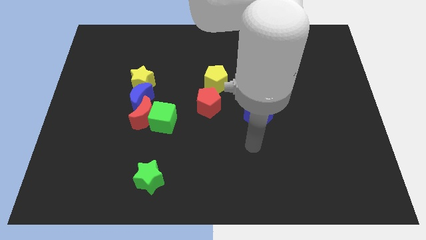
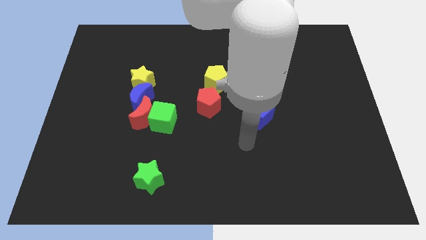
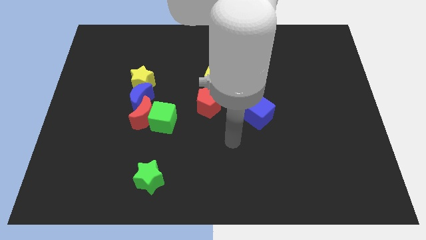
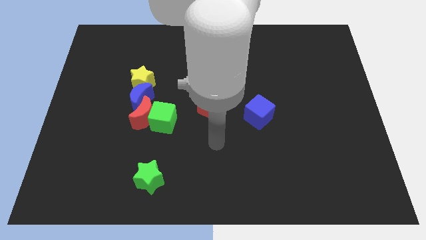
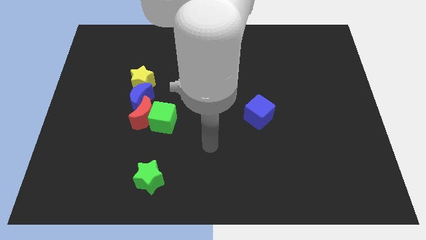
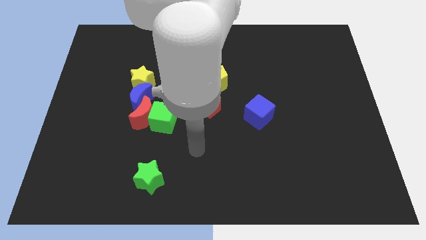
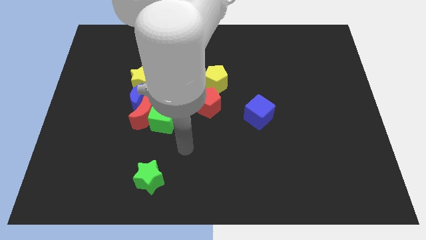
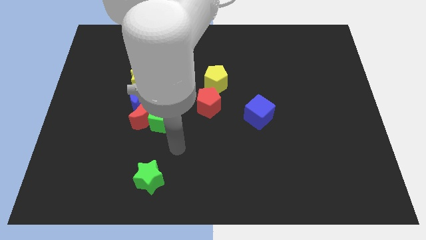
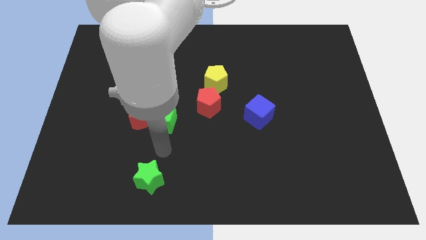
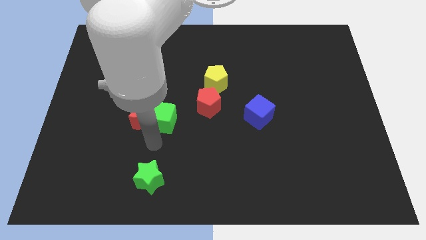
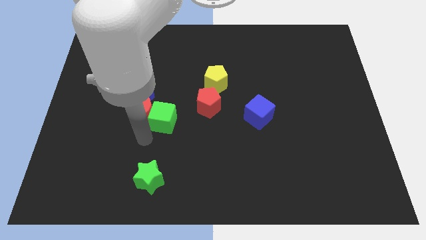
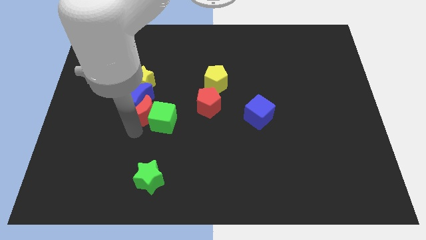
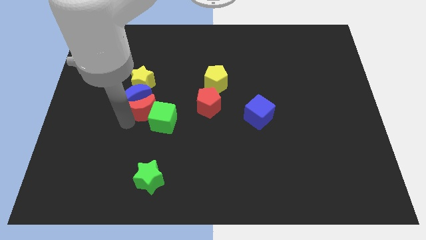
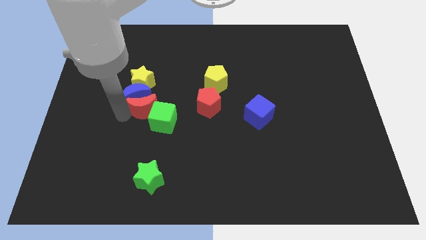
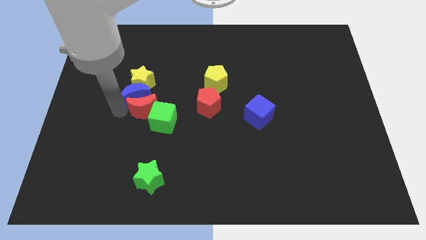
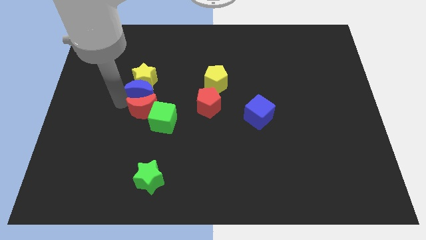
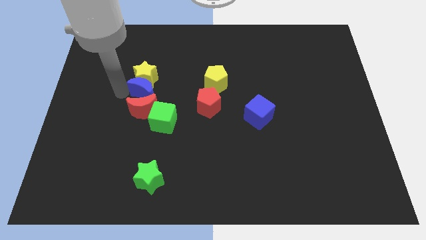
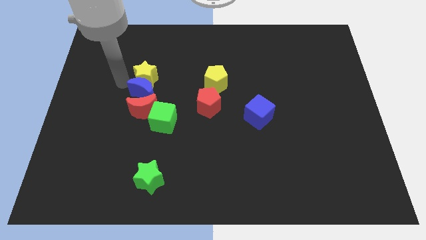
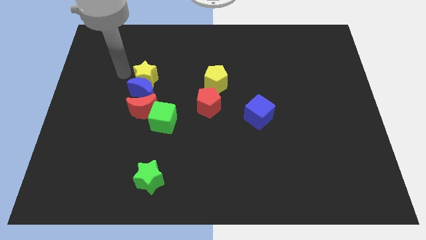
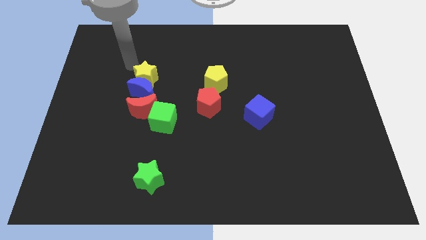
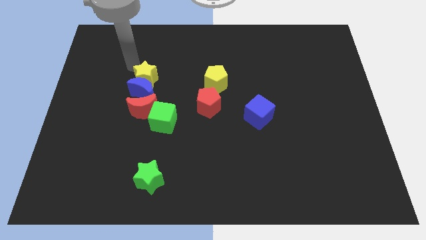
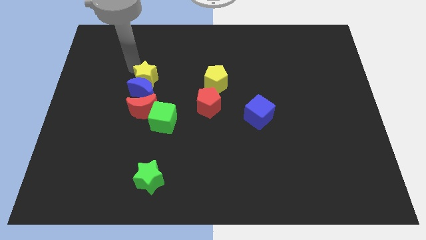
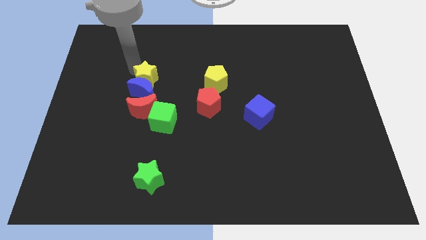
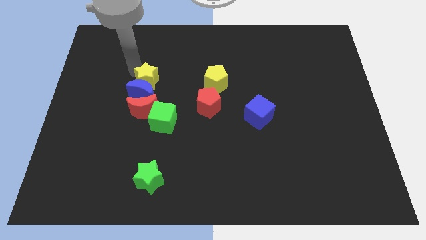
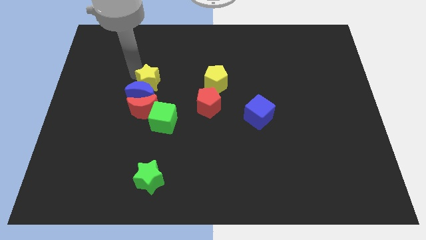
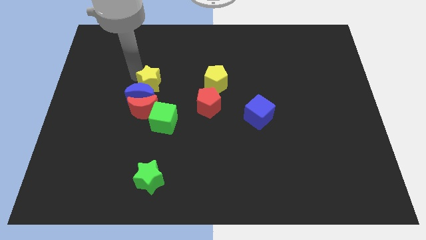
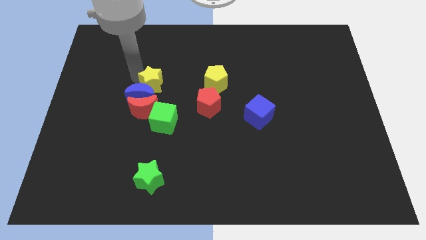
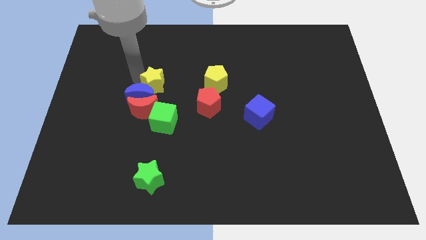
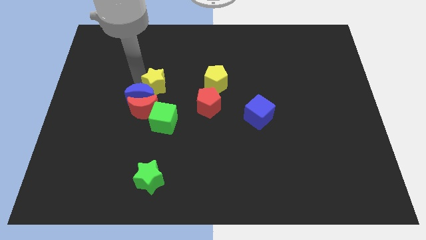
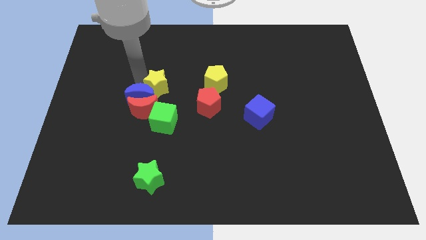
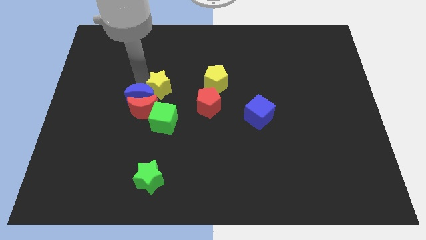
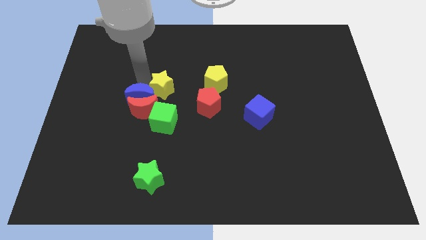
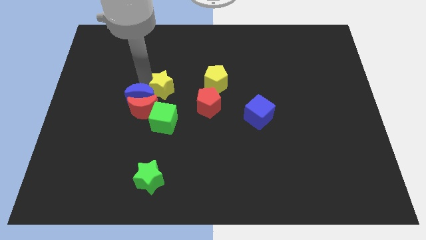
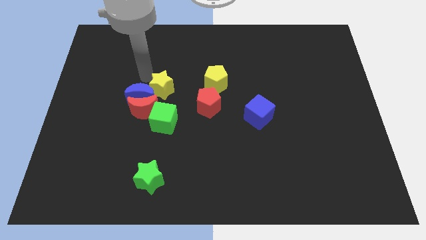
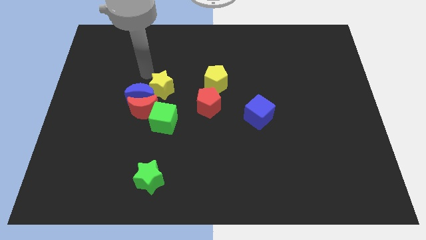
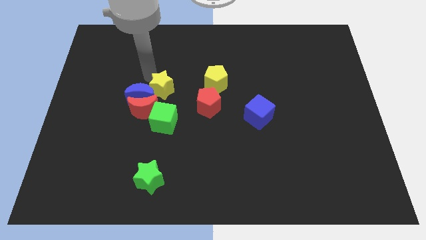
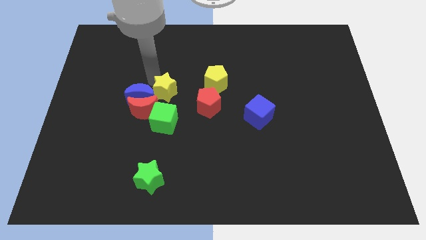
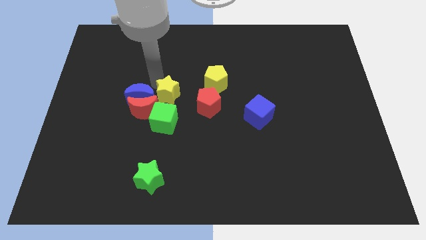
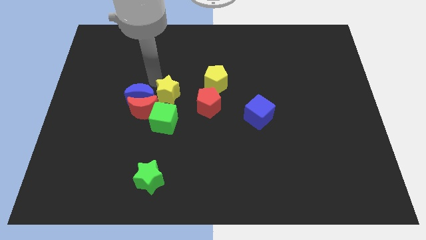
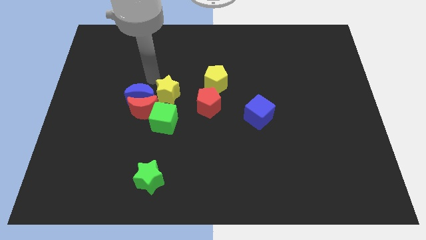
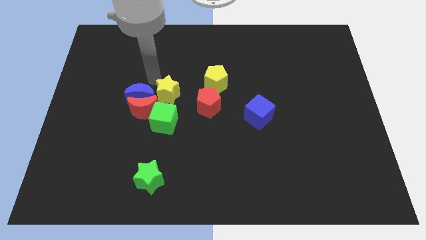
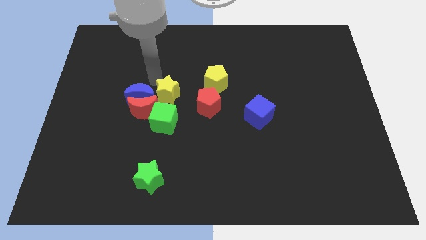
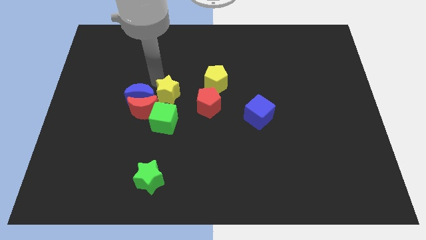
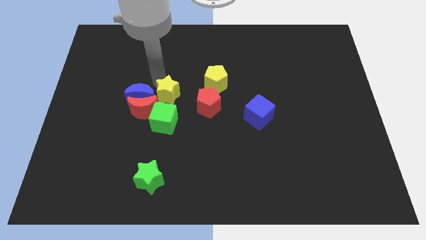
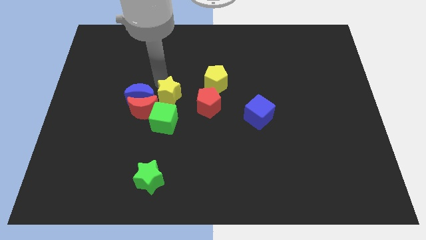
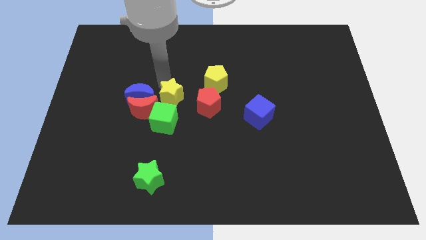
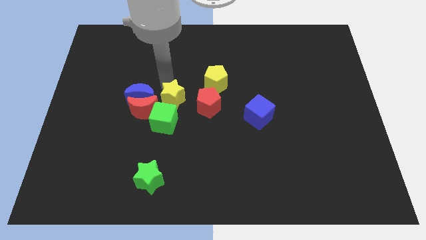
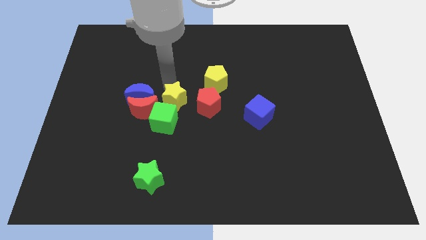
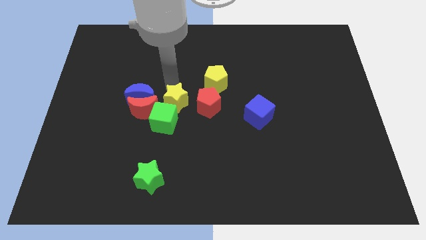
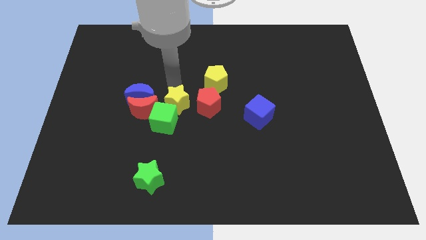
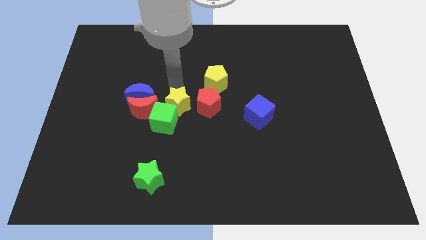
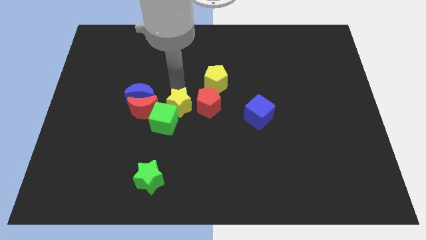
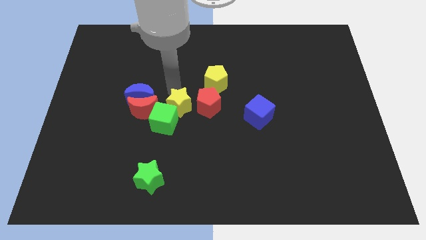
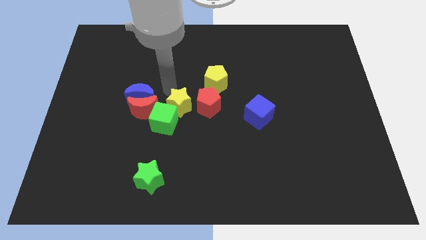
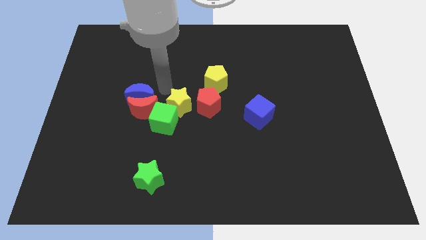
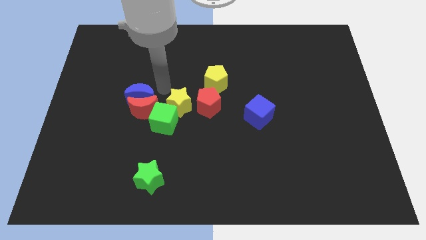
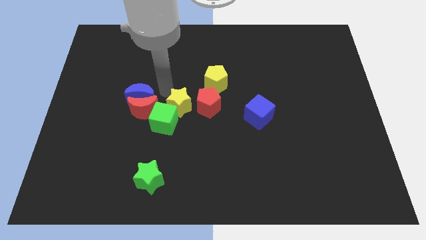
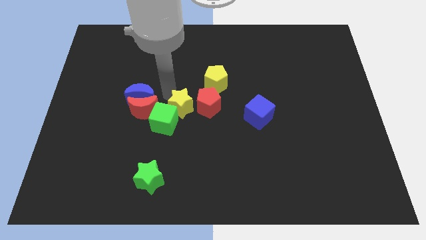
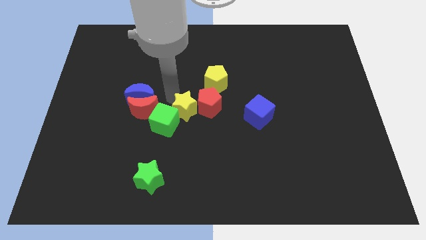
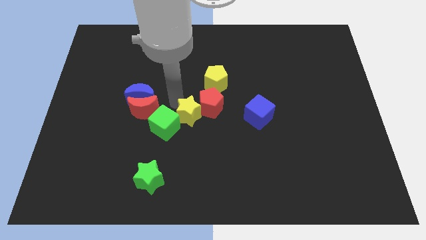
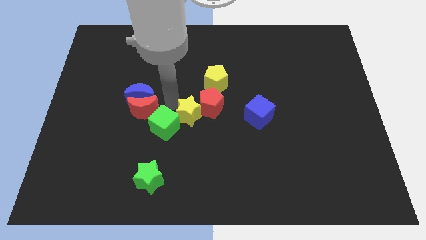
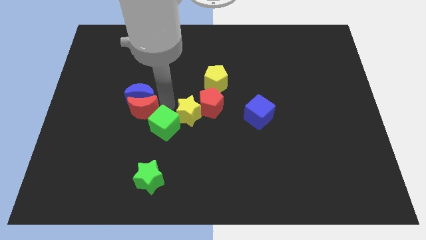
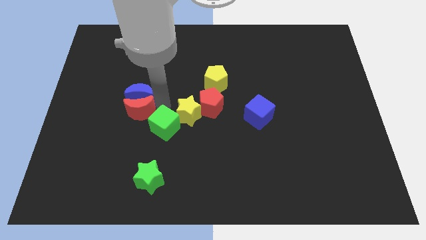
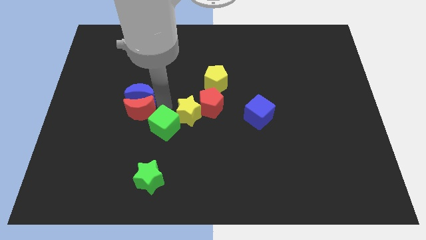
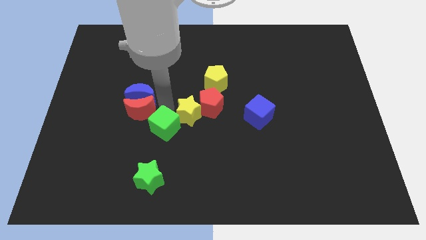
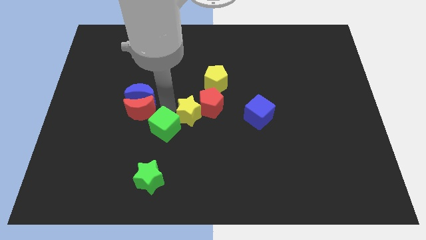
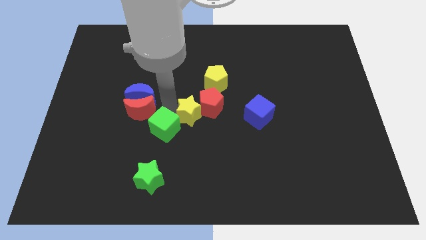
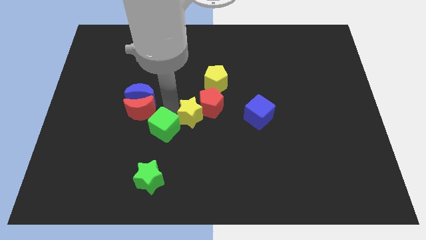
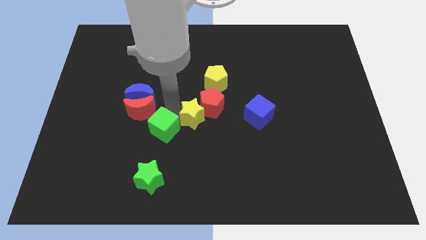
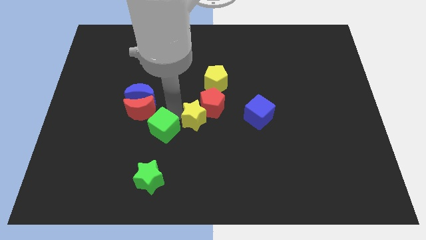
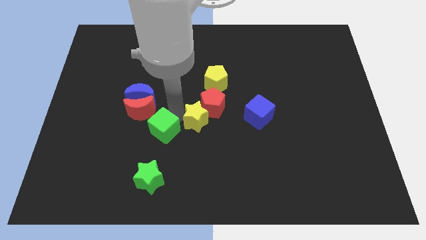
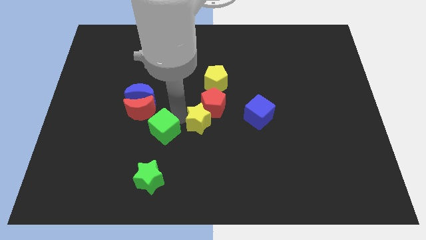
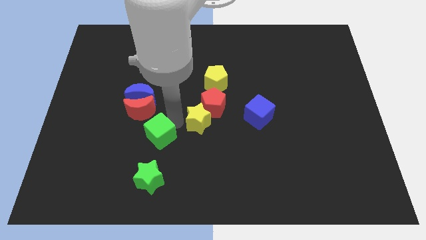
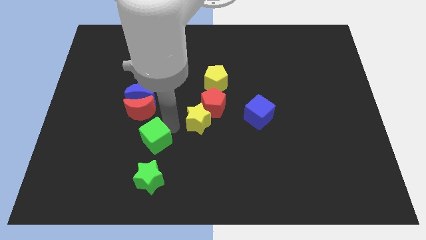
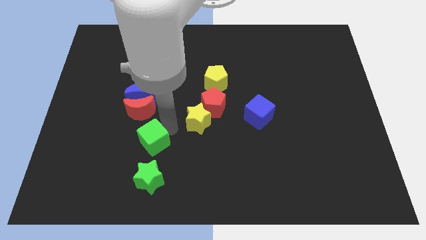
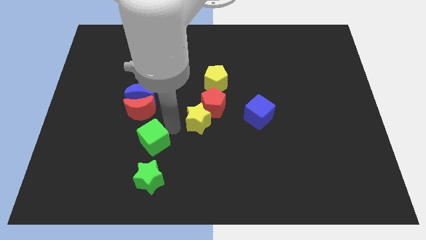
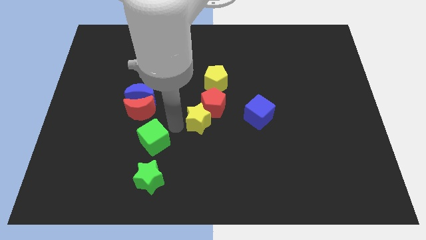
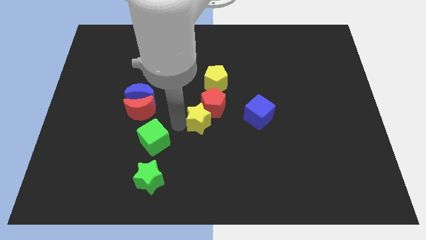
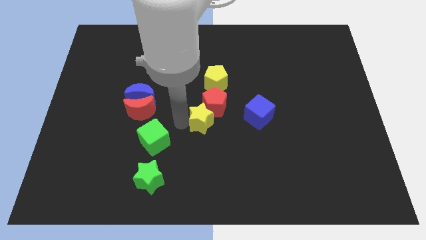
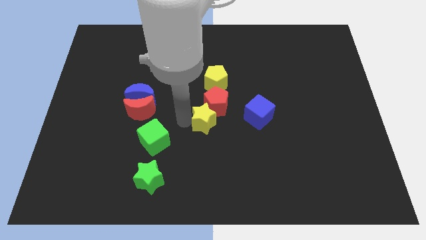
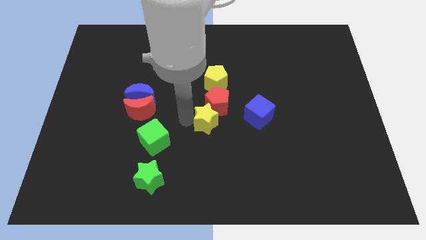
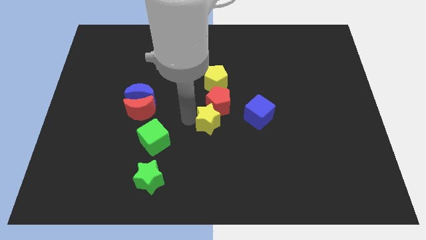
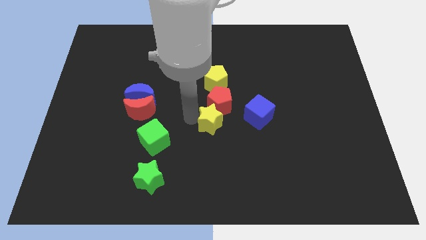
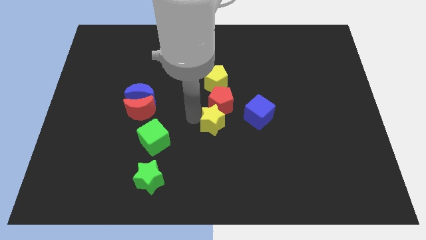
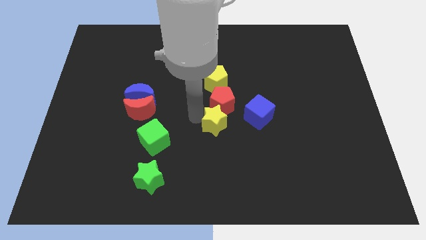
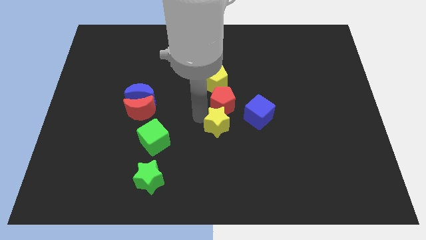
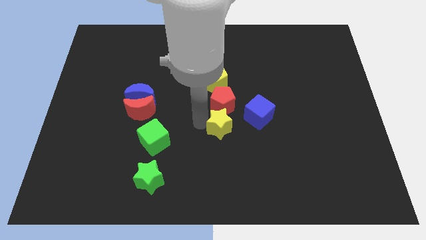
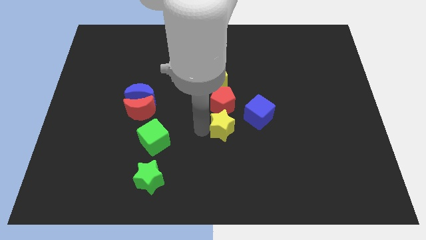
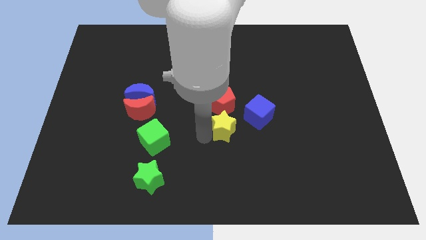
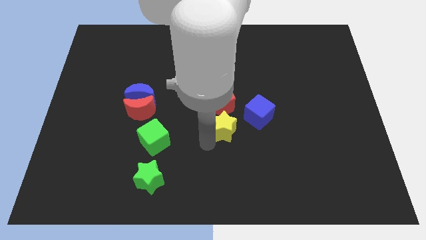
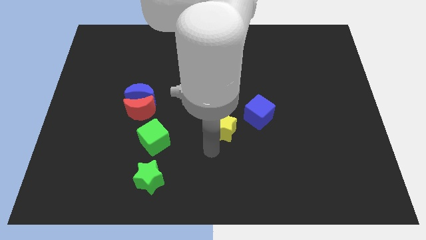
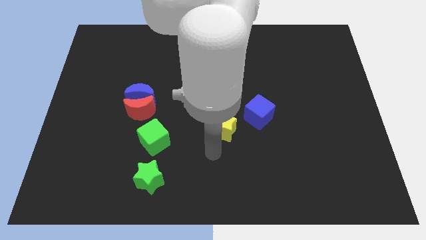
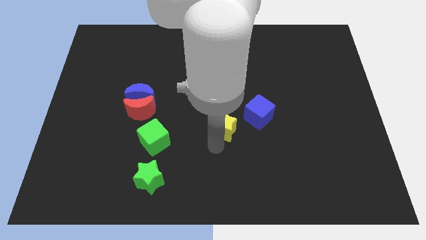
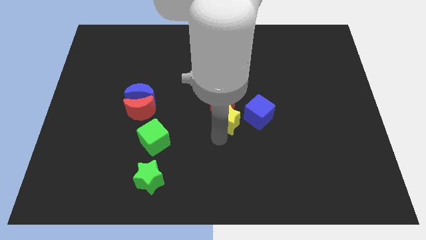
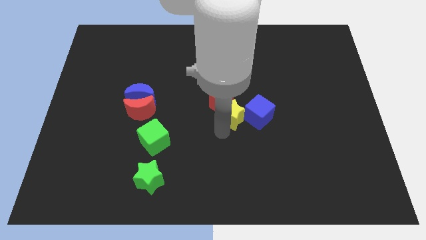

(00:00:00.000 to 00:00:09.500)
move the yellow star to the top left side of the blue cube
